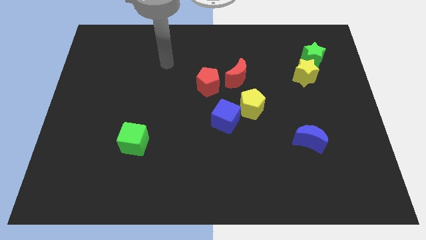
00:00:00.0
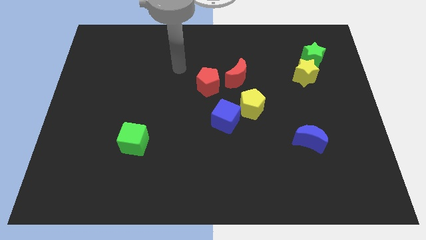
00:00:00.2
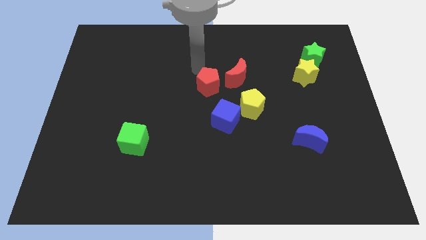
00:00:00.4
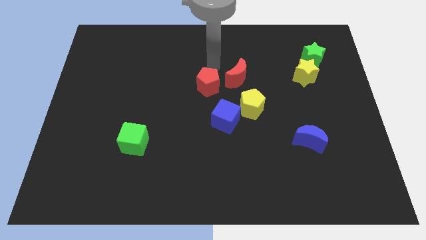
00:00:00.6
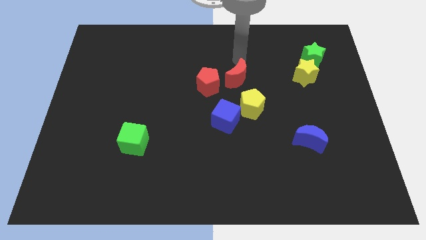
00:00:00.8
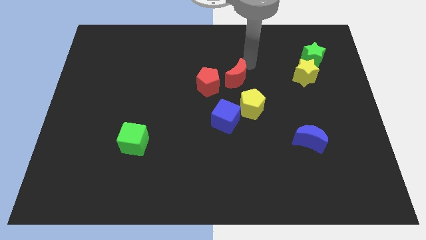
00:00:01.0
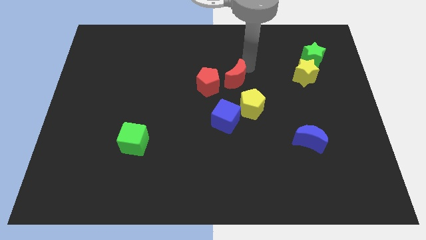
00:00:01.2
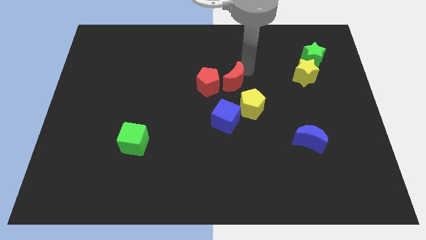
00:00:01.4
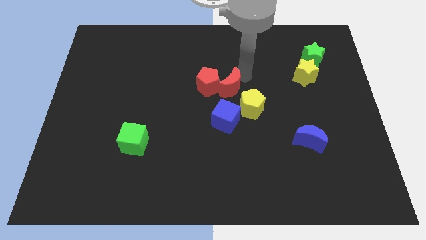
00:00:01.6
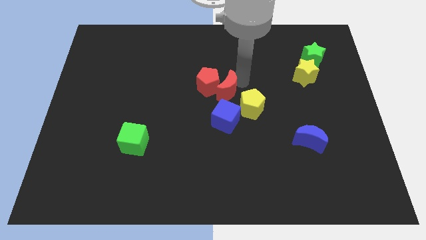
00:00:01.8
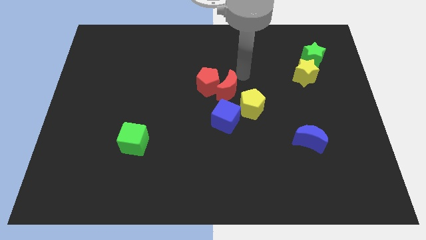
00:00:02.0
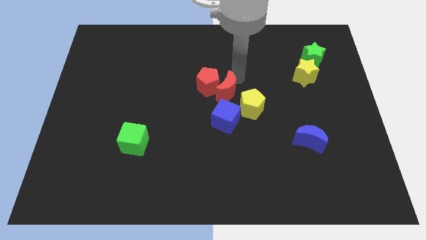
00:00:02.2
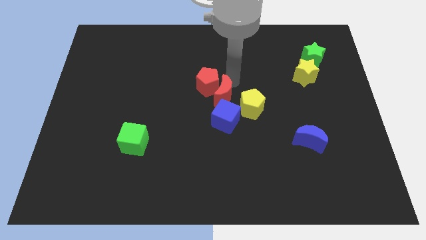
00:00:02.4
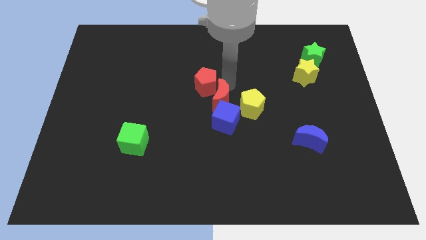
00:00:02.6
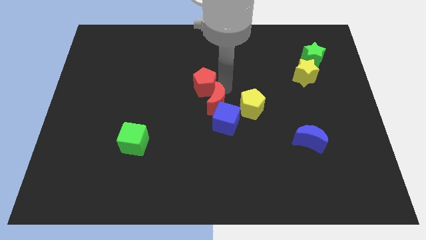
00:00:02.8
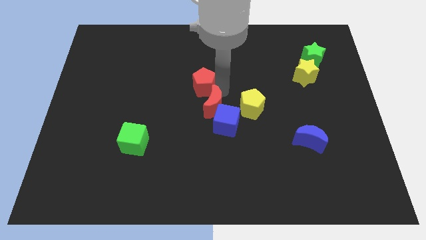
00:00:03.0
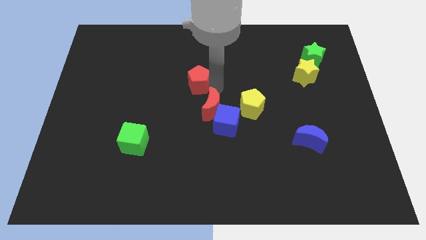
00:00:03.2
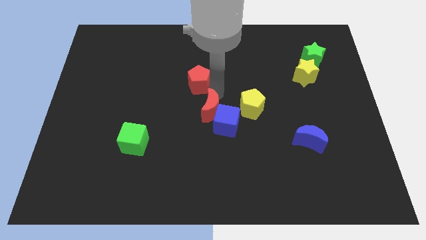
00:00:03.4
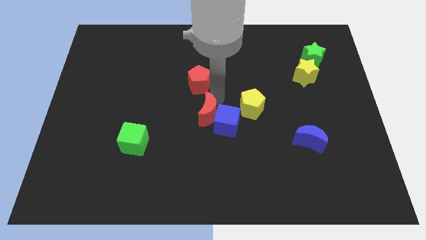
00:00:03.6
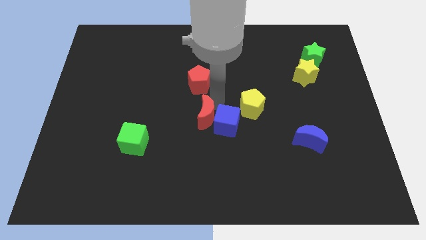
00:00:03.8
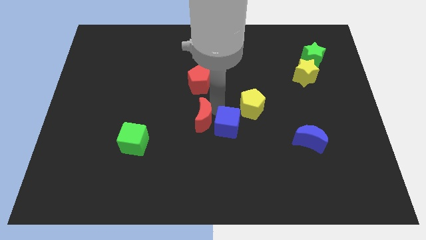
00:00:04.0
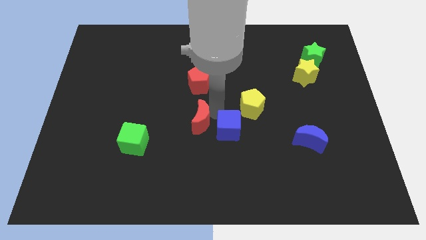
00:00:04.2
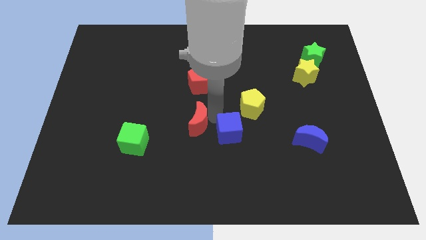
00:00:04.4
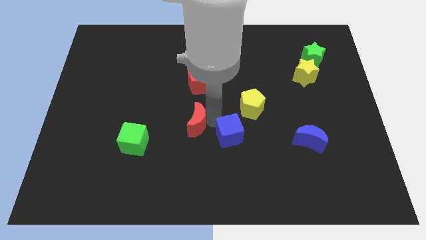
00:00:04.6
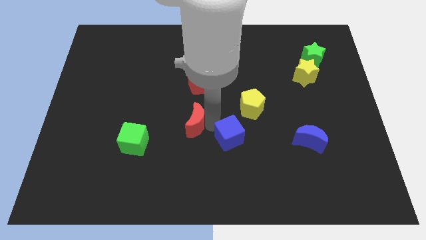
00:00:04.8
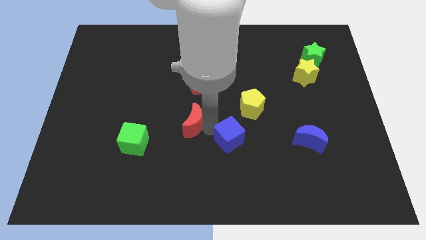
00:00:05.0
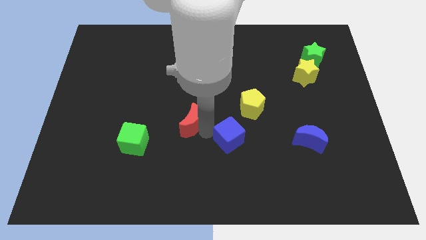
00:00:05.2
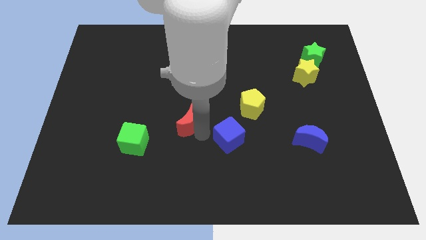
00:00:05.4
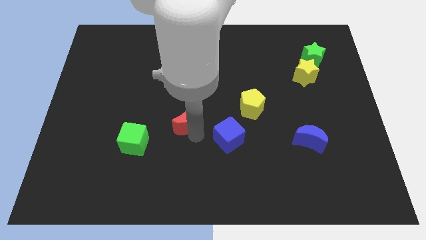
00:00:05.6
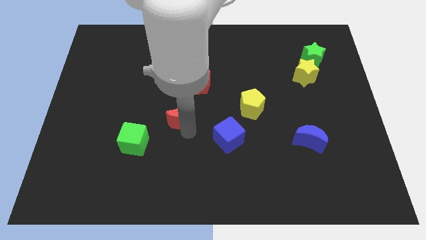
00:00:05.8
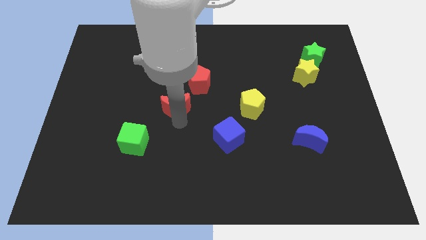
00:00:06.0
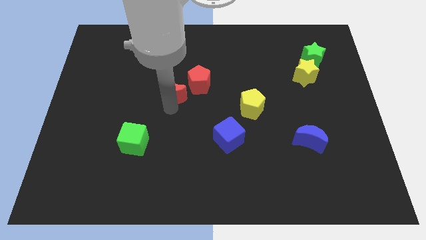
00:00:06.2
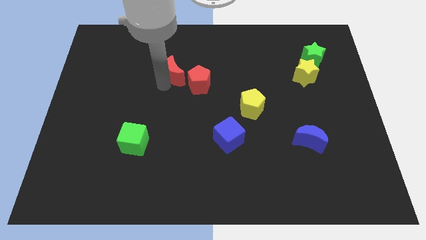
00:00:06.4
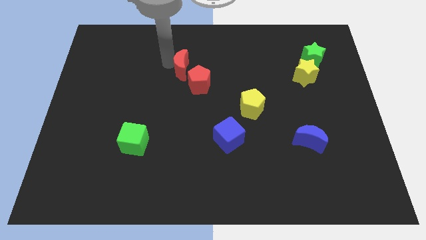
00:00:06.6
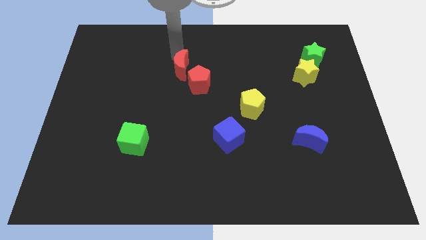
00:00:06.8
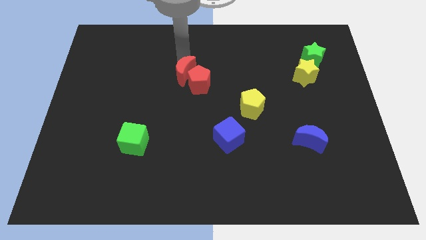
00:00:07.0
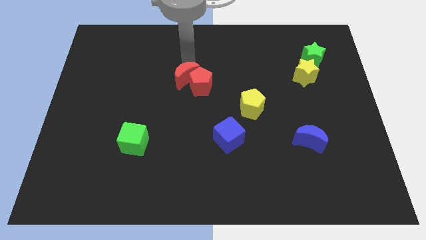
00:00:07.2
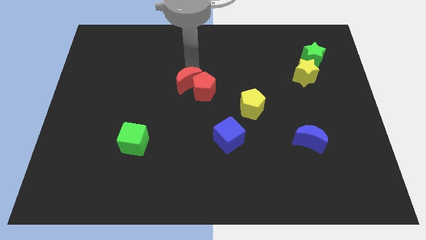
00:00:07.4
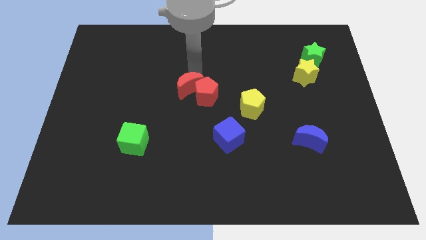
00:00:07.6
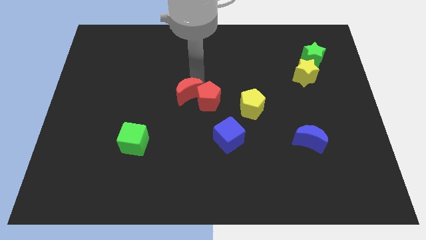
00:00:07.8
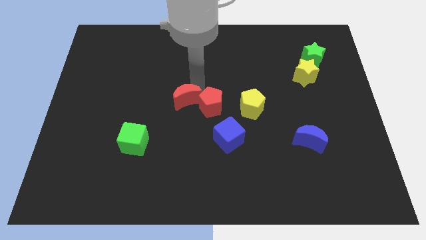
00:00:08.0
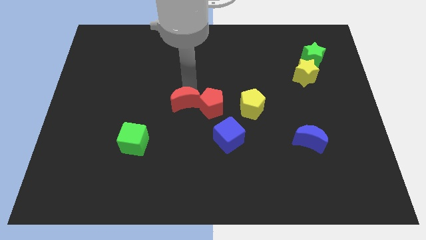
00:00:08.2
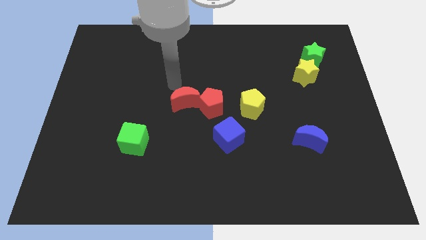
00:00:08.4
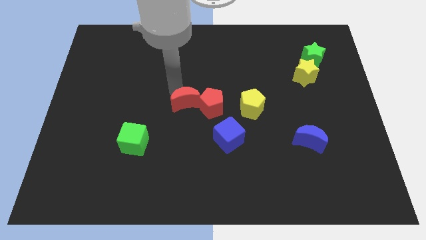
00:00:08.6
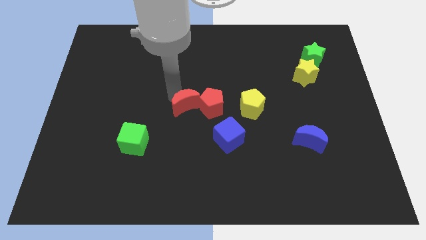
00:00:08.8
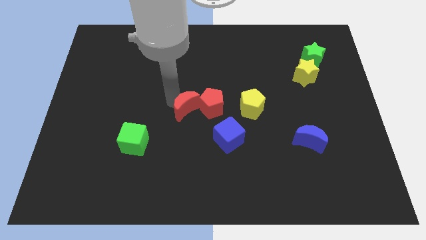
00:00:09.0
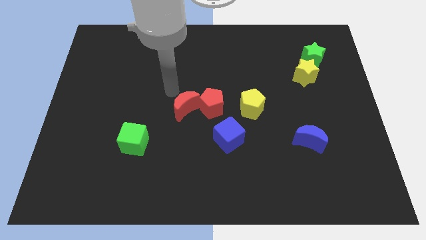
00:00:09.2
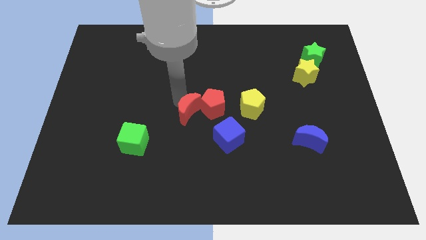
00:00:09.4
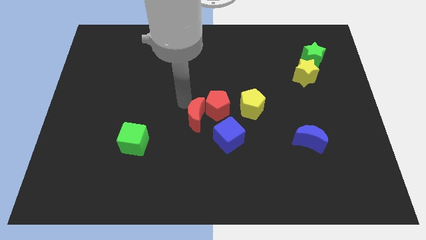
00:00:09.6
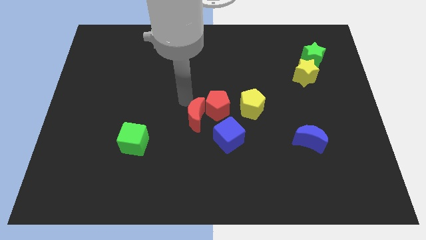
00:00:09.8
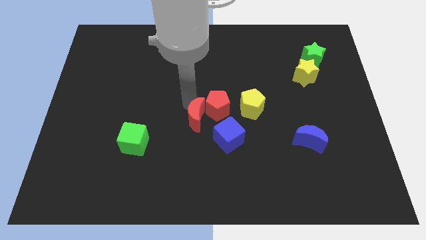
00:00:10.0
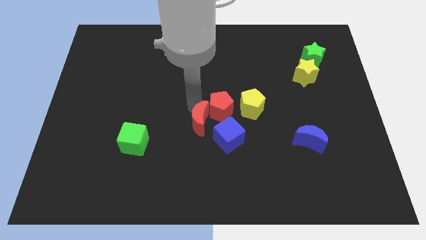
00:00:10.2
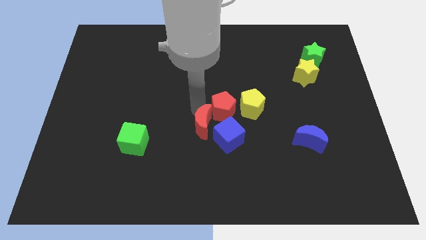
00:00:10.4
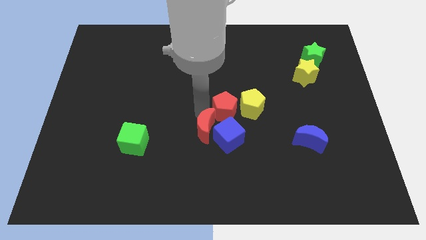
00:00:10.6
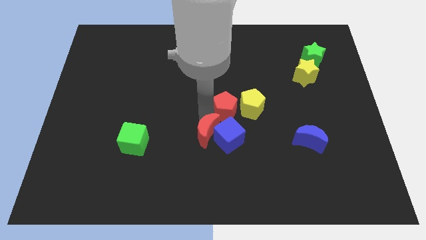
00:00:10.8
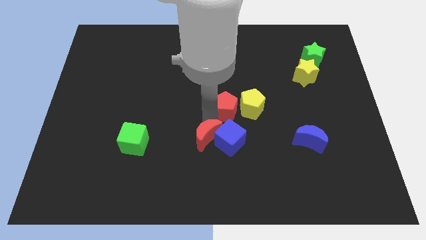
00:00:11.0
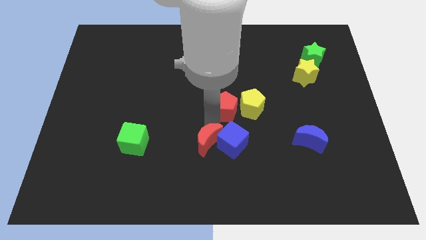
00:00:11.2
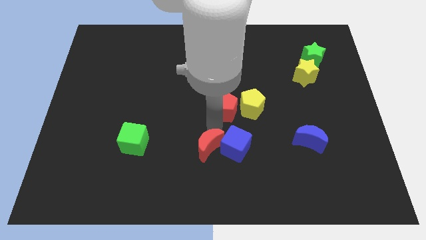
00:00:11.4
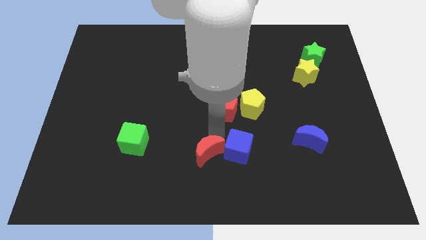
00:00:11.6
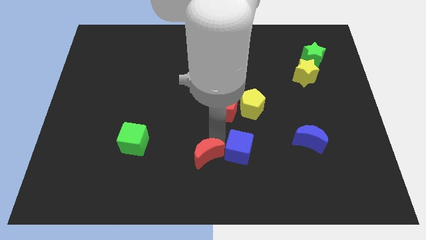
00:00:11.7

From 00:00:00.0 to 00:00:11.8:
put the red moon to the bottom

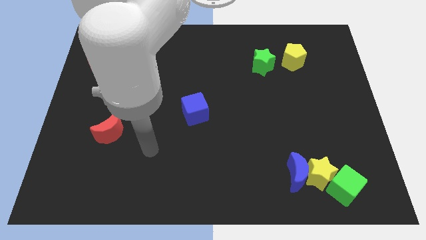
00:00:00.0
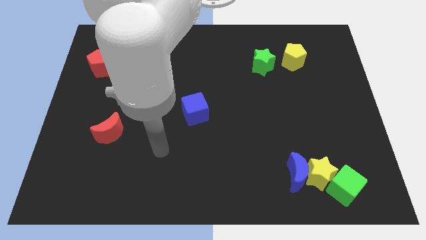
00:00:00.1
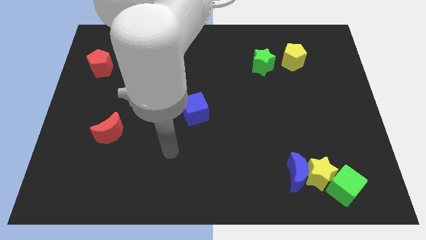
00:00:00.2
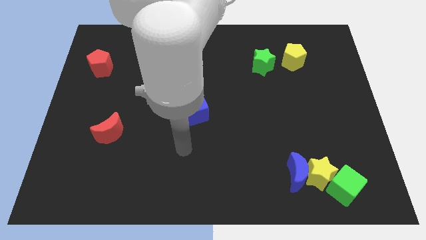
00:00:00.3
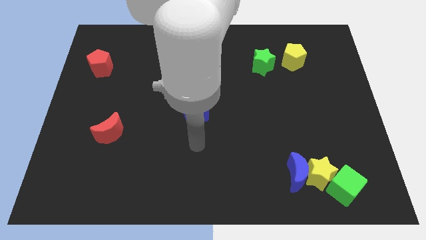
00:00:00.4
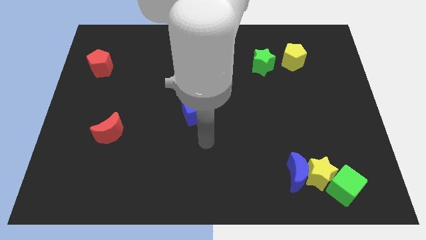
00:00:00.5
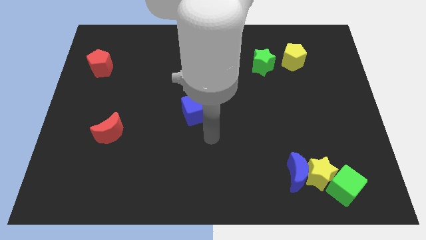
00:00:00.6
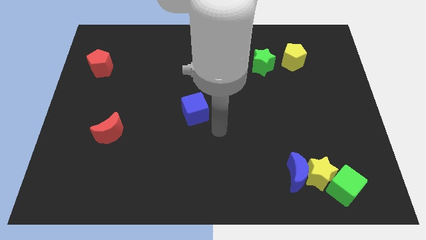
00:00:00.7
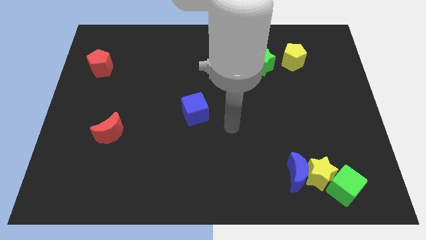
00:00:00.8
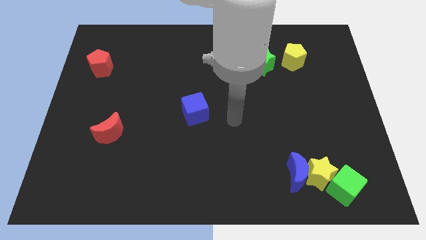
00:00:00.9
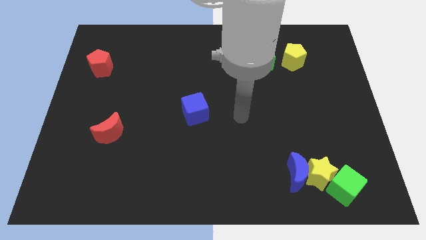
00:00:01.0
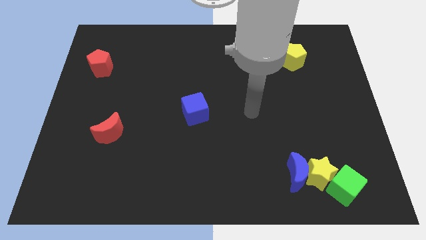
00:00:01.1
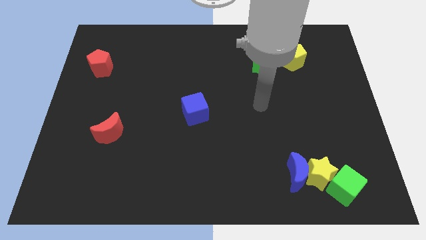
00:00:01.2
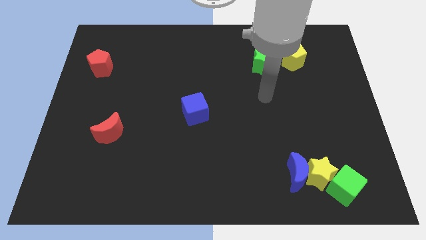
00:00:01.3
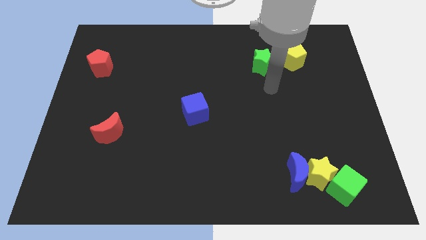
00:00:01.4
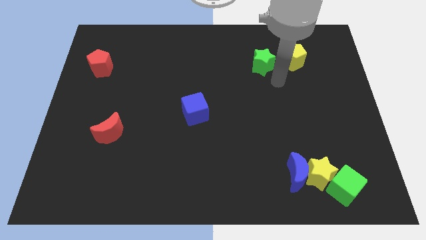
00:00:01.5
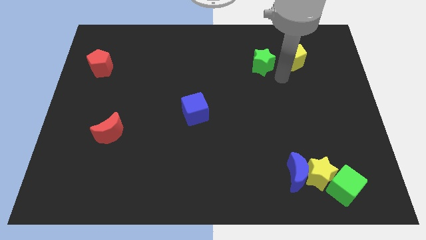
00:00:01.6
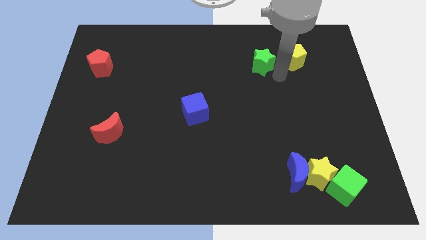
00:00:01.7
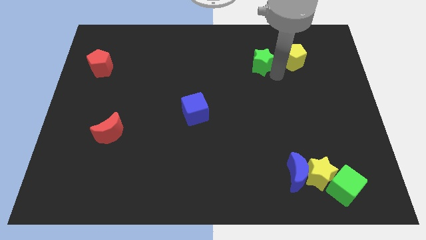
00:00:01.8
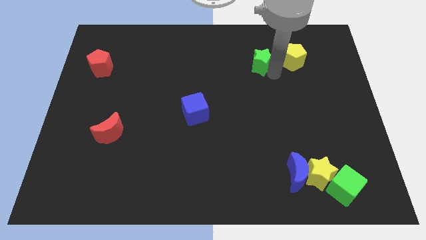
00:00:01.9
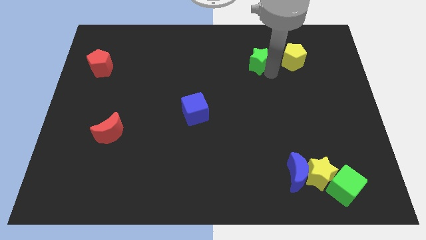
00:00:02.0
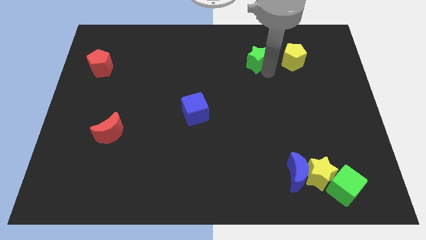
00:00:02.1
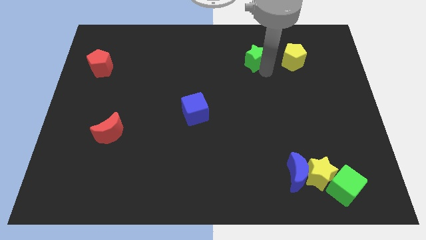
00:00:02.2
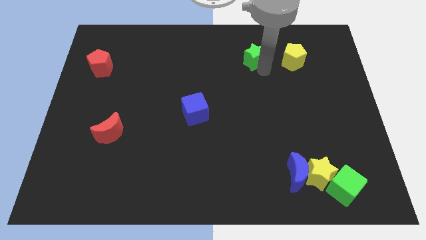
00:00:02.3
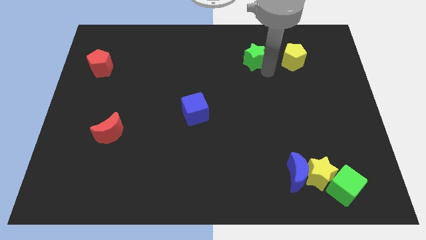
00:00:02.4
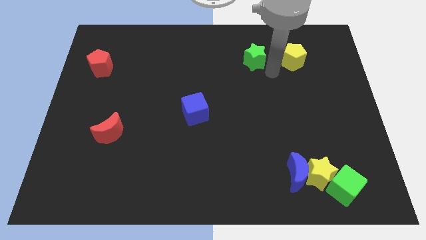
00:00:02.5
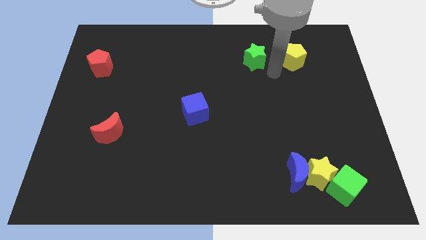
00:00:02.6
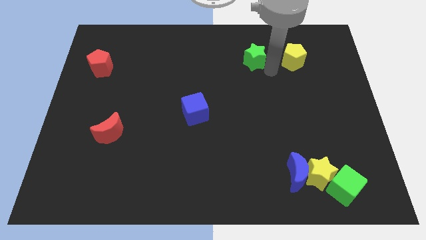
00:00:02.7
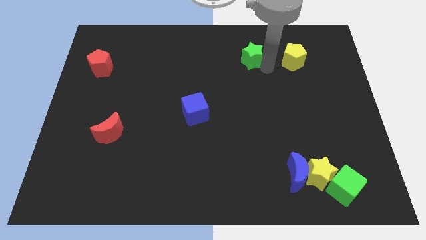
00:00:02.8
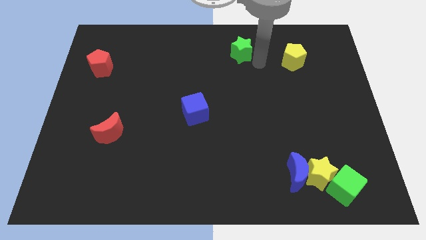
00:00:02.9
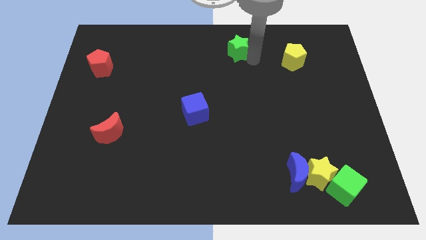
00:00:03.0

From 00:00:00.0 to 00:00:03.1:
push the green star to the top side
